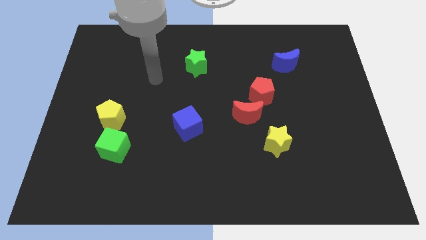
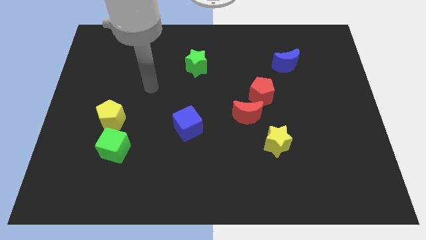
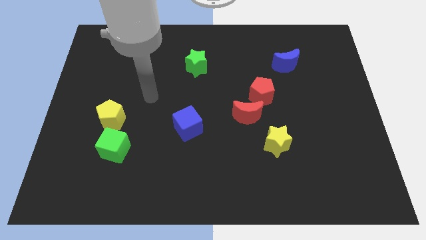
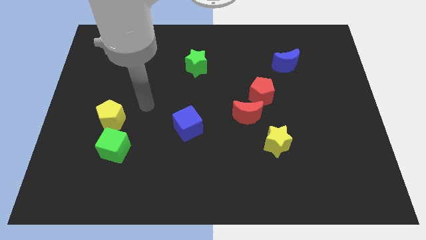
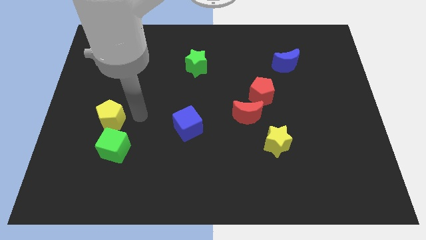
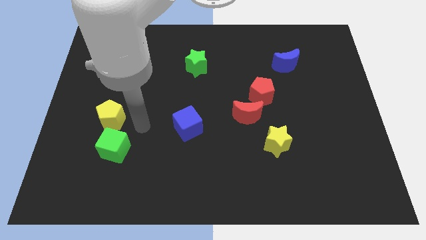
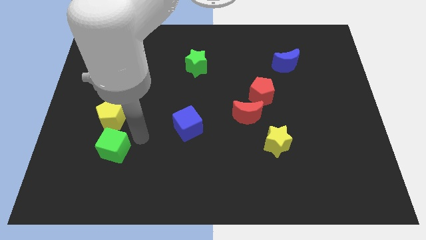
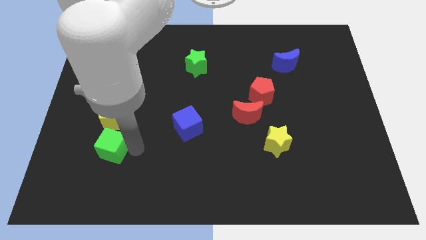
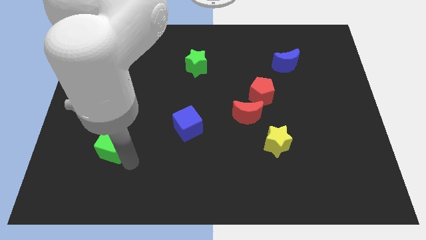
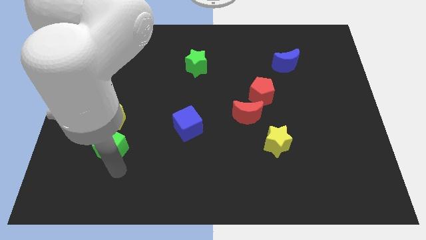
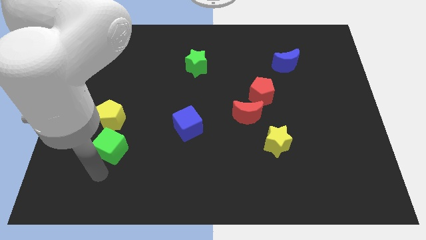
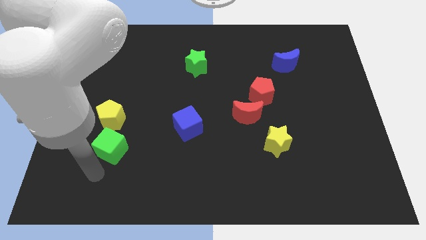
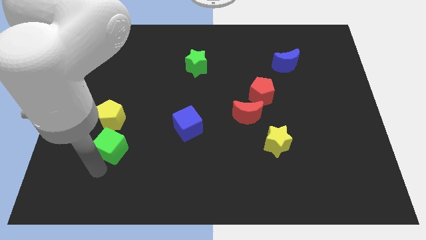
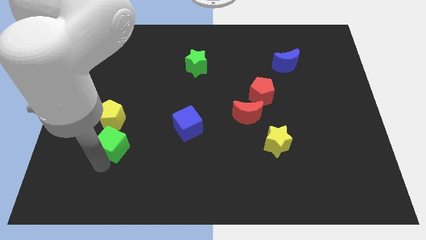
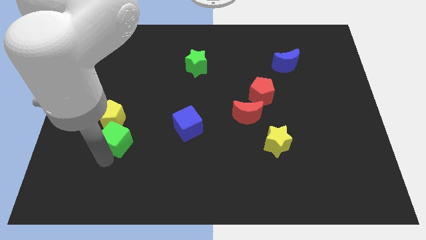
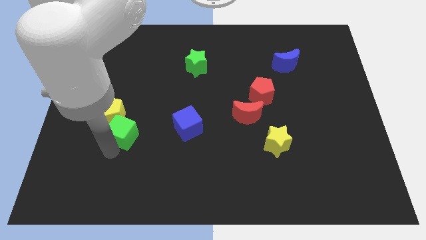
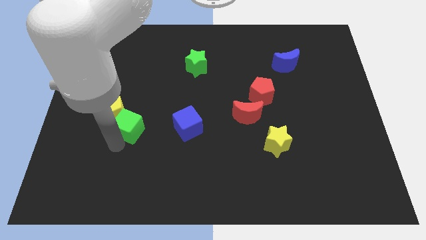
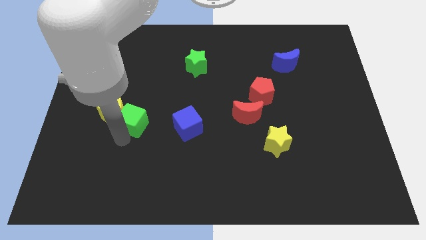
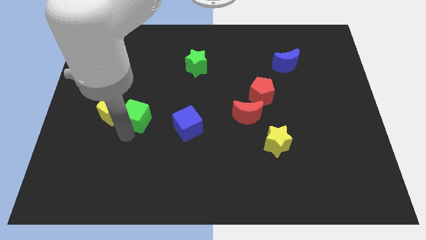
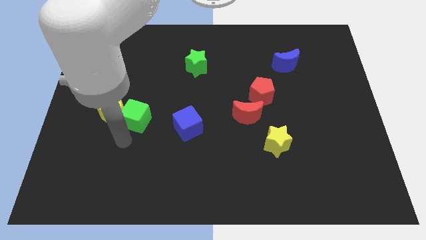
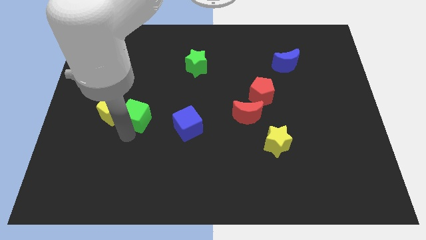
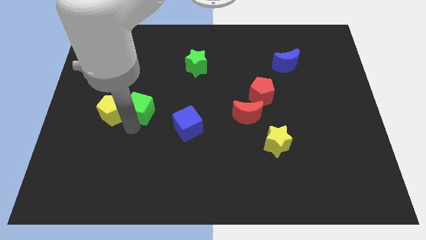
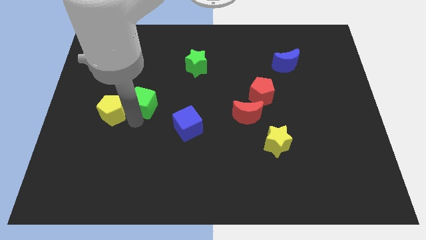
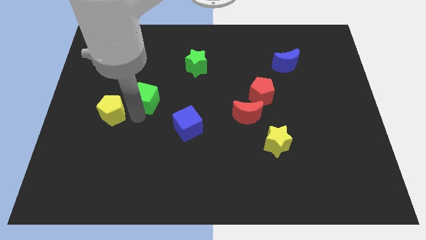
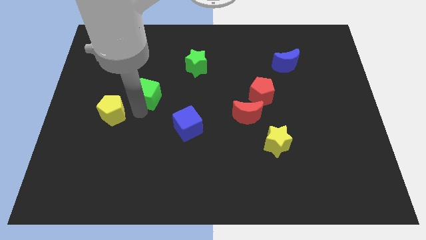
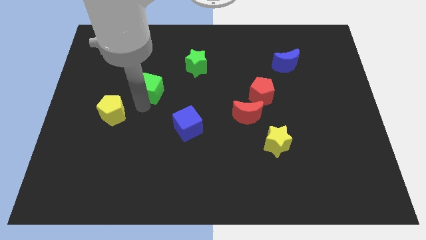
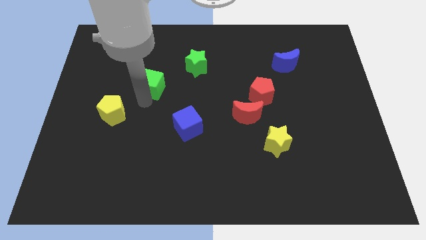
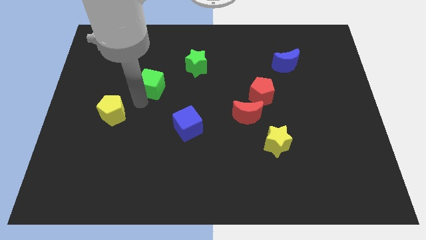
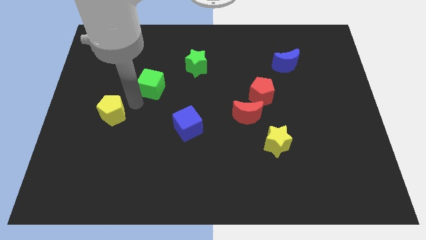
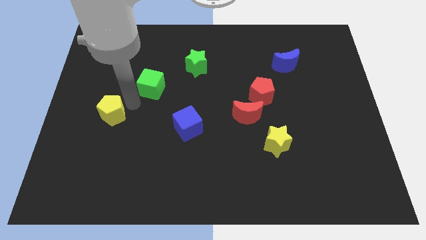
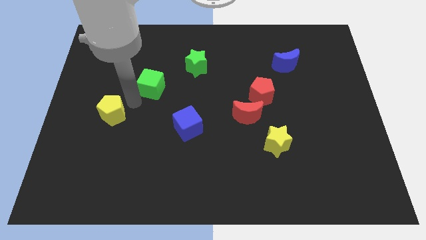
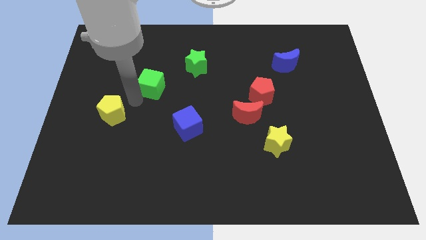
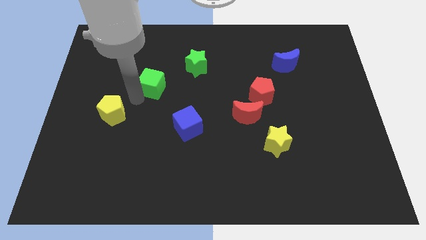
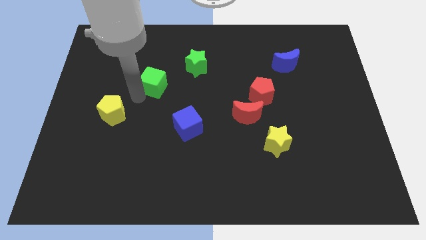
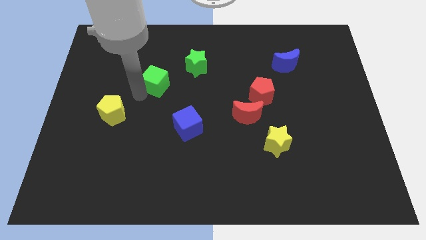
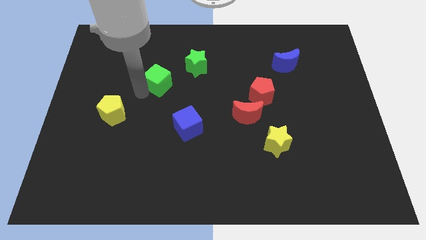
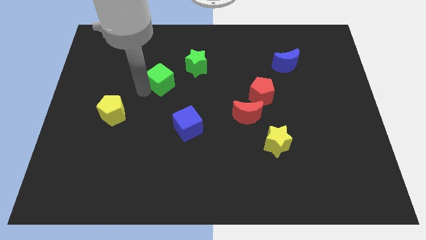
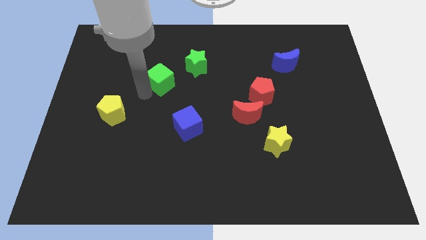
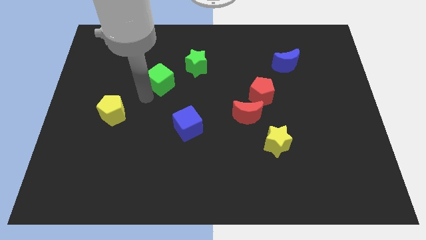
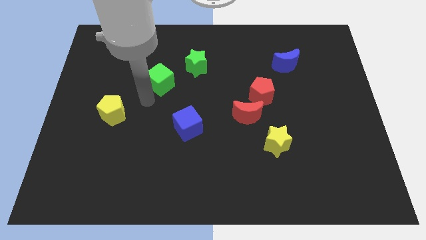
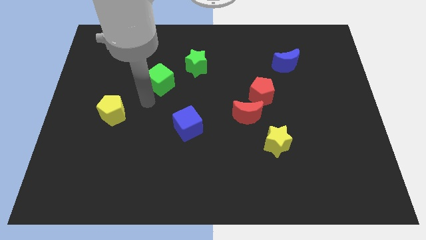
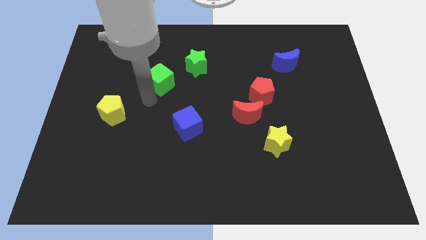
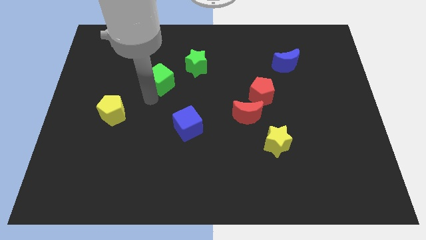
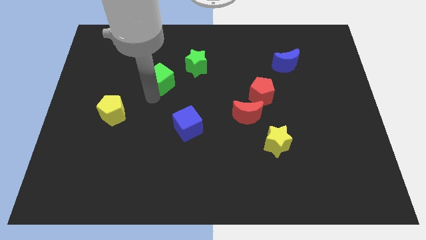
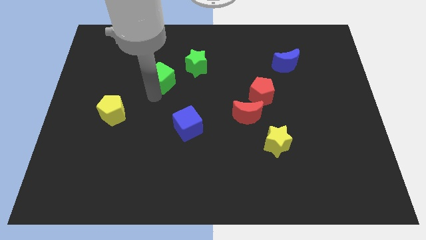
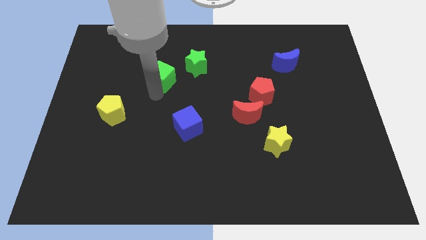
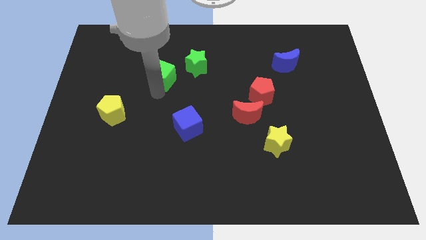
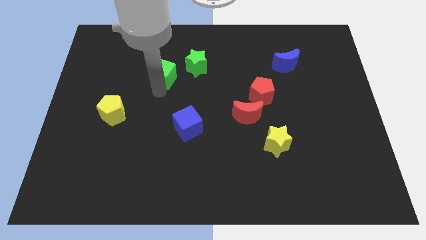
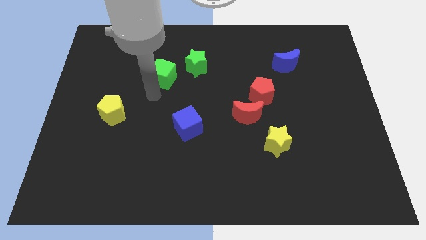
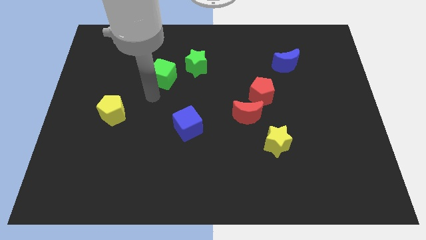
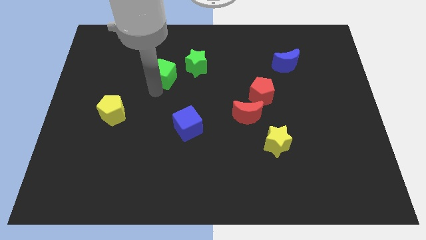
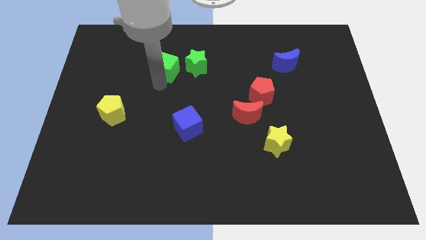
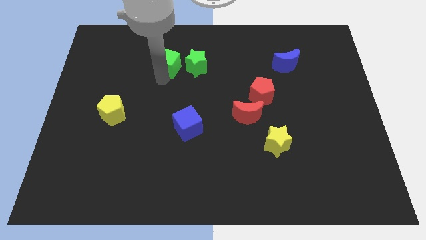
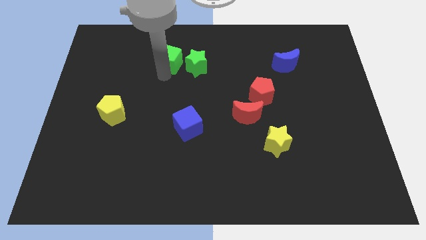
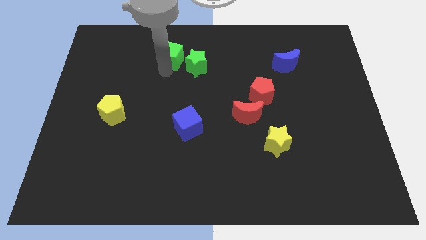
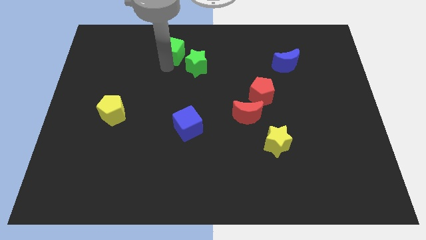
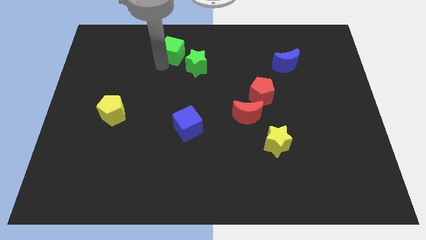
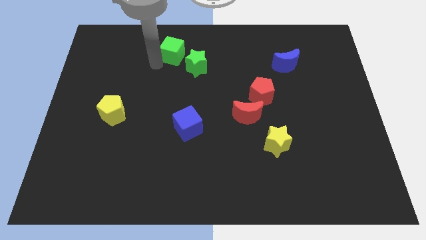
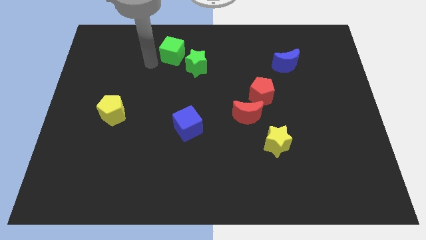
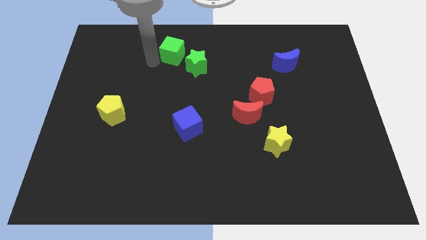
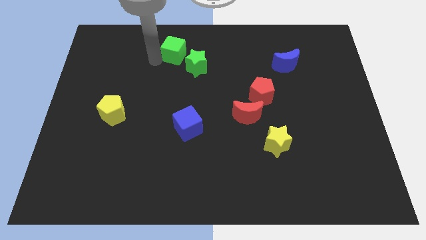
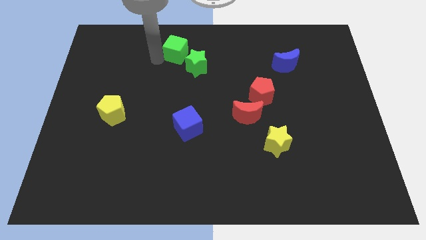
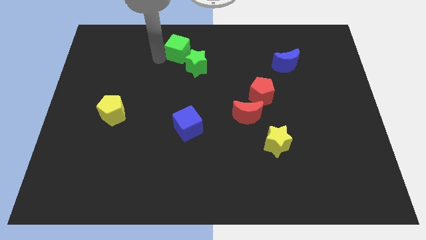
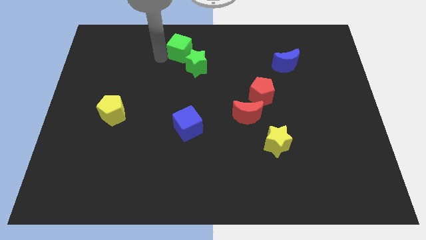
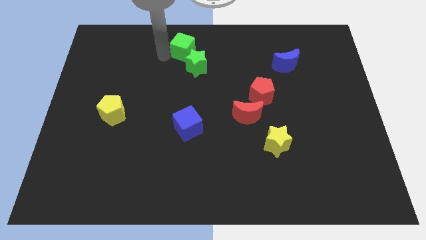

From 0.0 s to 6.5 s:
put the green cube to the top side

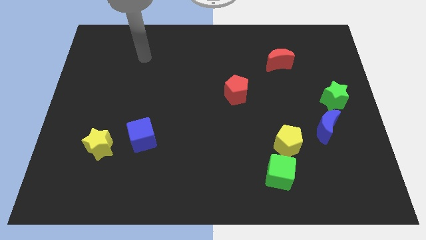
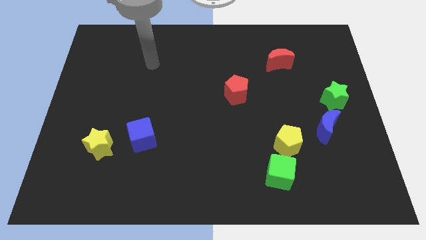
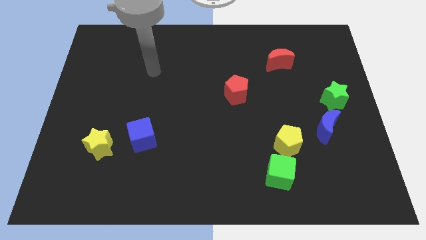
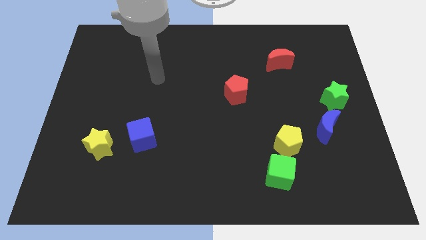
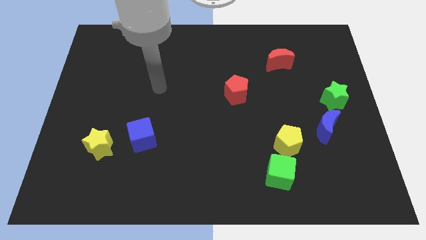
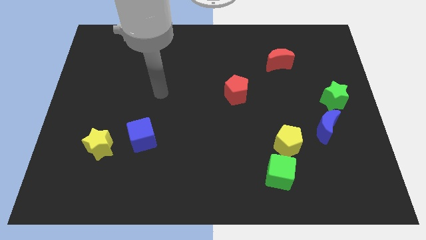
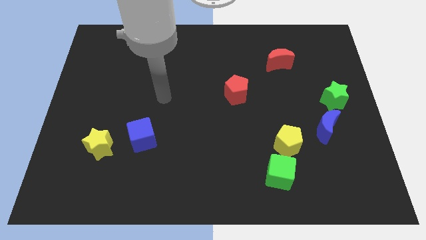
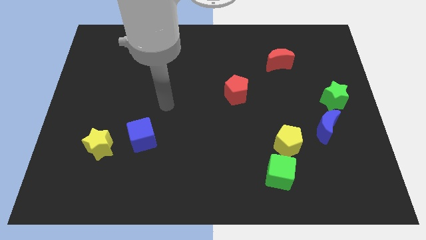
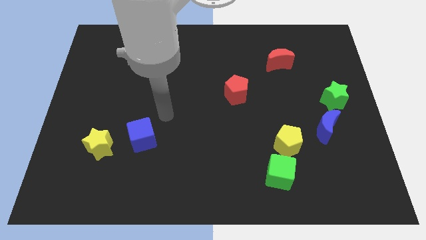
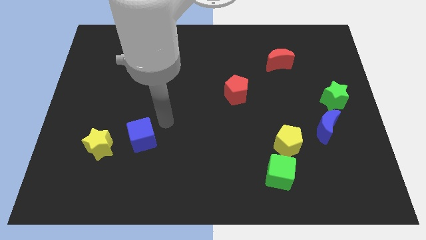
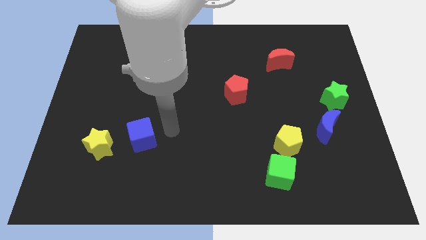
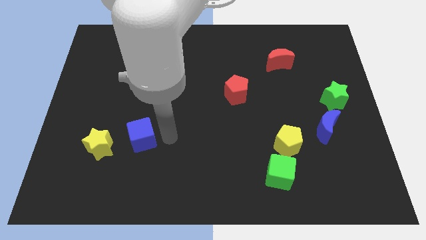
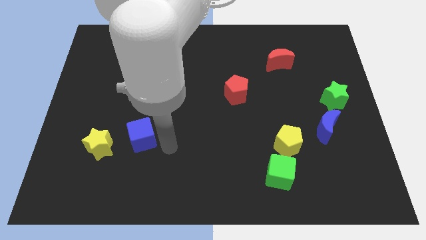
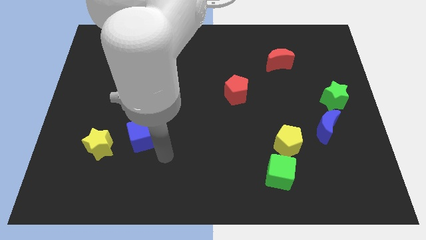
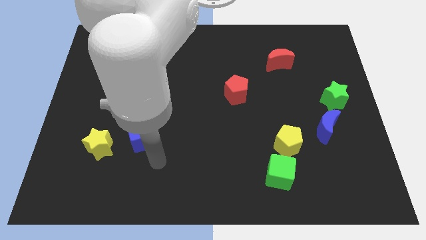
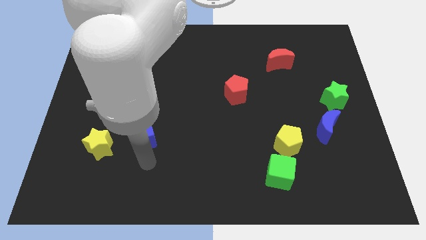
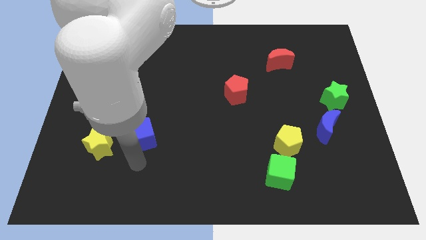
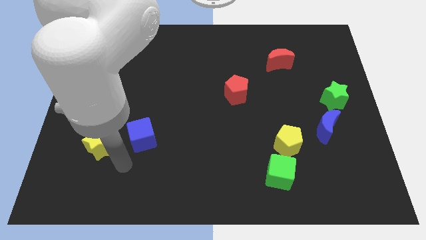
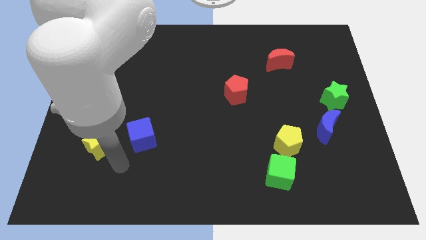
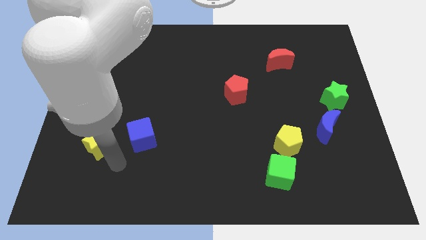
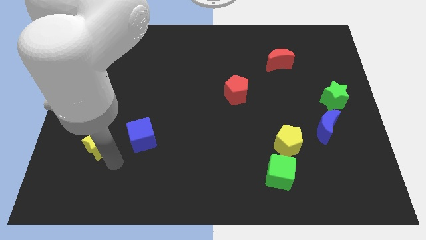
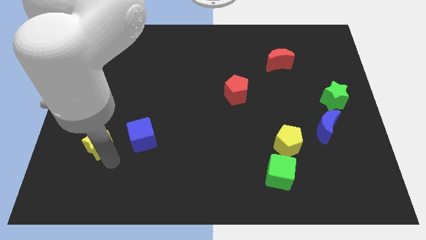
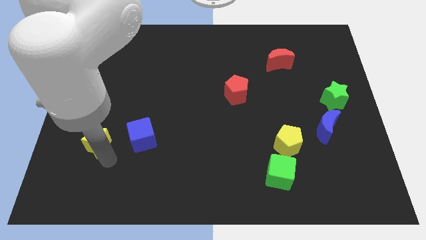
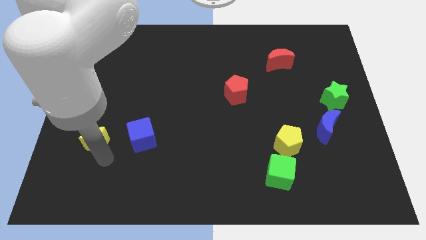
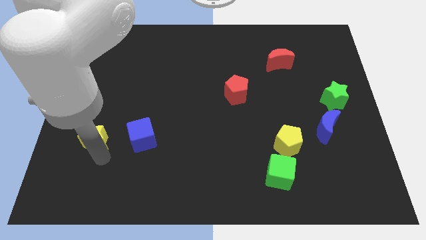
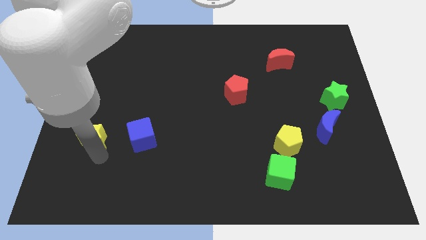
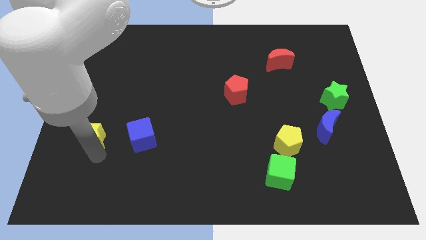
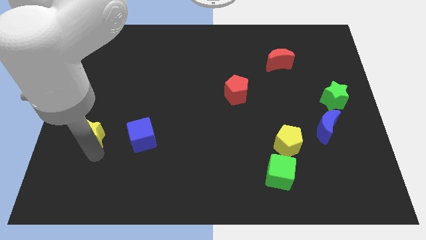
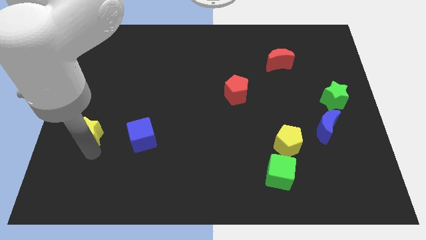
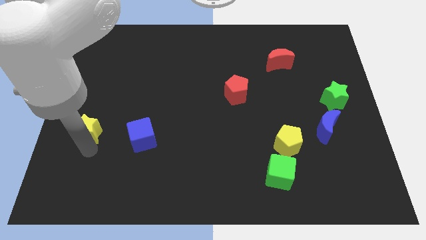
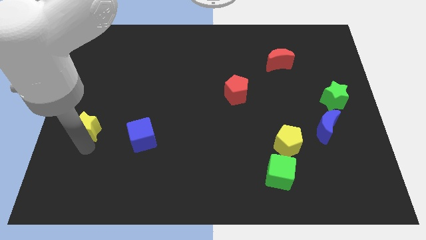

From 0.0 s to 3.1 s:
push the yellow star to the left side of the board
